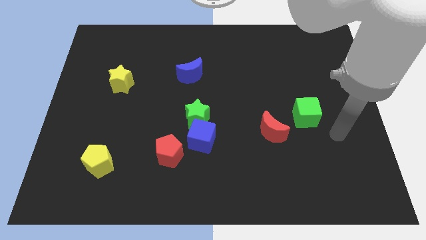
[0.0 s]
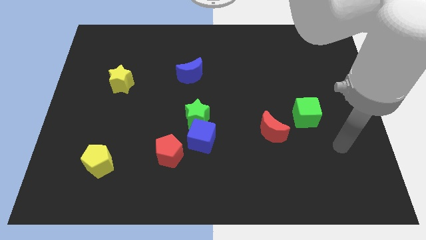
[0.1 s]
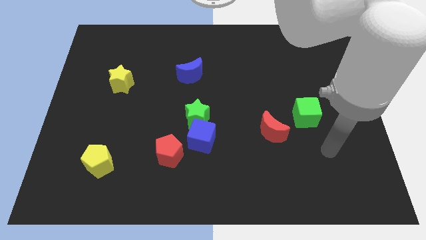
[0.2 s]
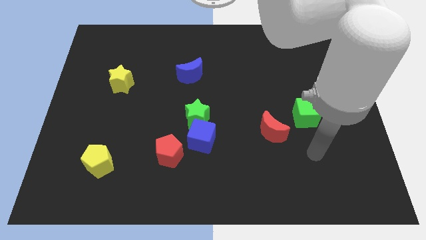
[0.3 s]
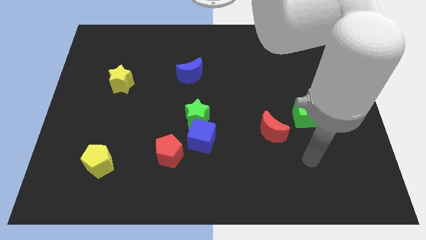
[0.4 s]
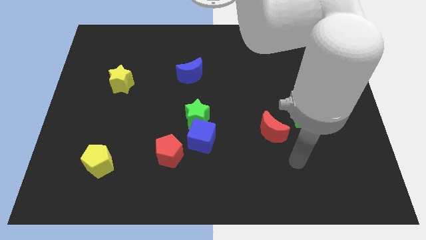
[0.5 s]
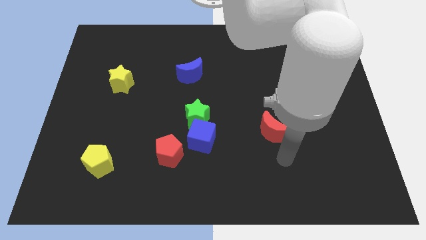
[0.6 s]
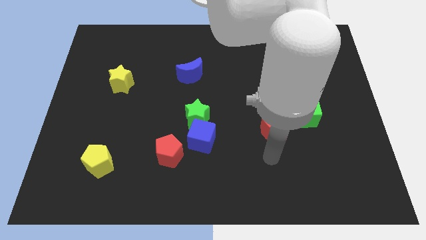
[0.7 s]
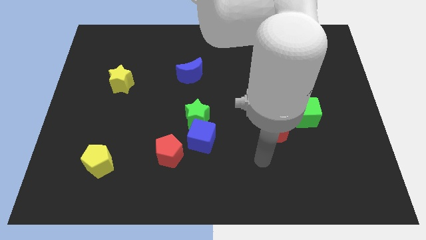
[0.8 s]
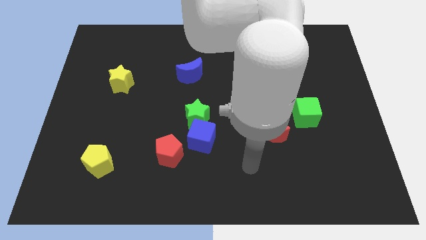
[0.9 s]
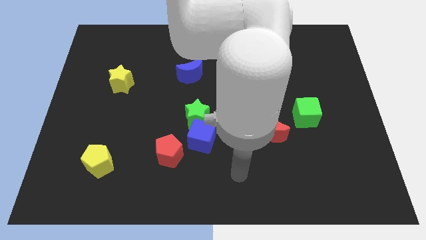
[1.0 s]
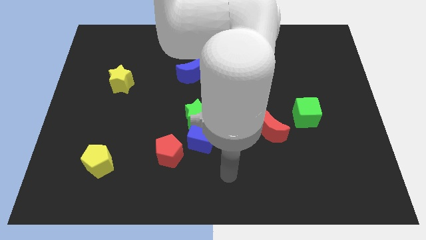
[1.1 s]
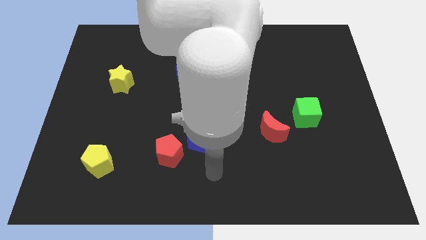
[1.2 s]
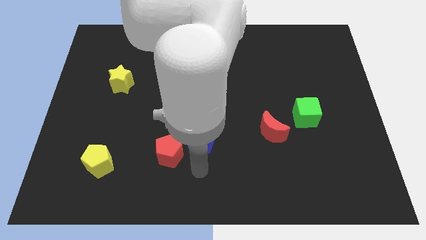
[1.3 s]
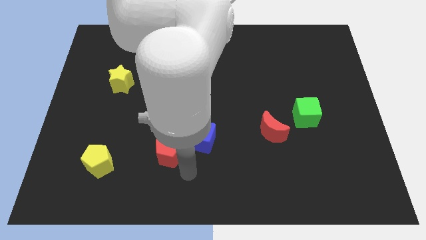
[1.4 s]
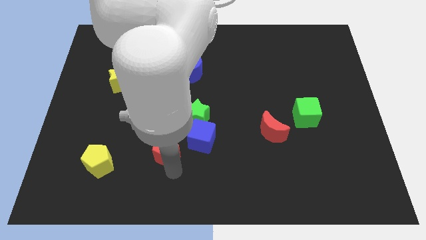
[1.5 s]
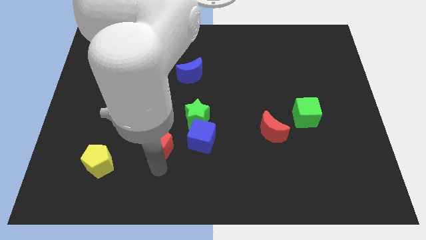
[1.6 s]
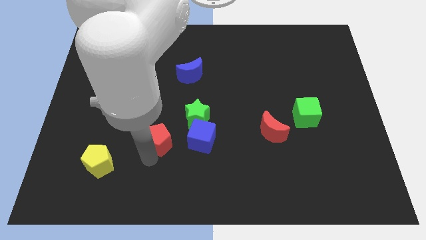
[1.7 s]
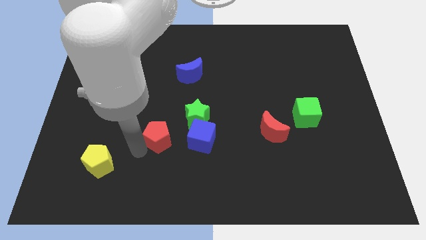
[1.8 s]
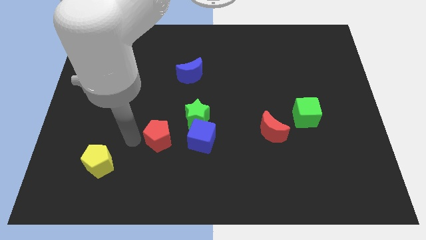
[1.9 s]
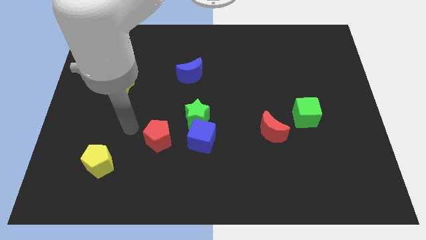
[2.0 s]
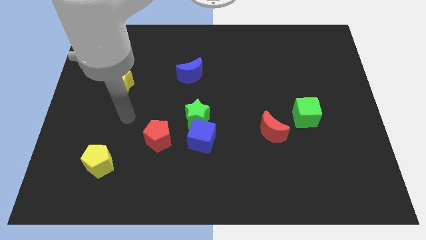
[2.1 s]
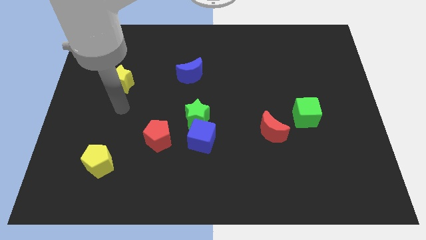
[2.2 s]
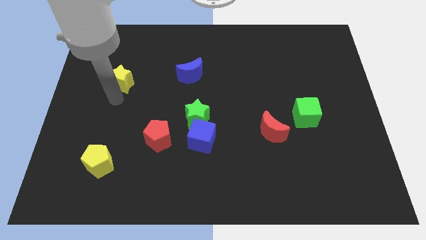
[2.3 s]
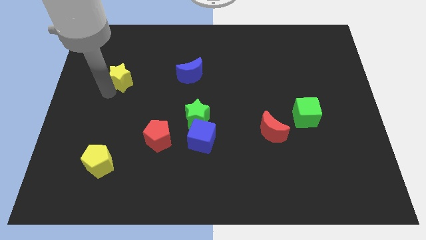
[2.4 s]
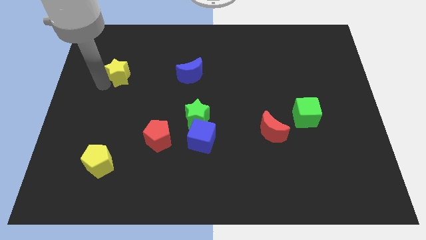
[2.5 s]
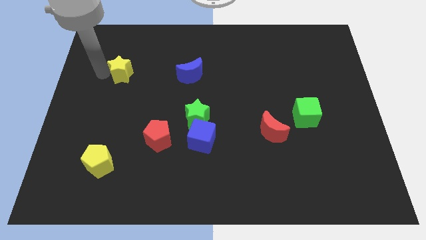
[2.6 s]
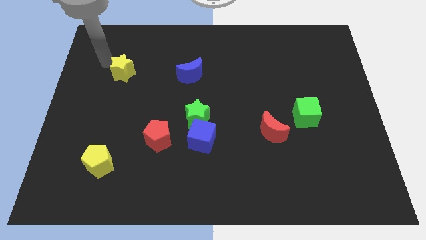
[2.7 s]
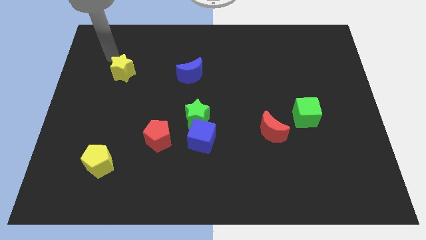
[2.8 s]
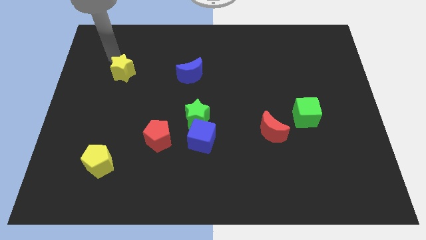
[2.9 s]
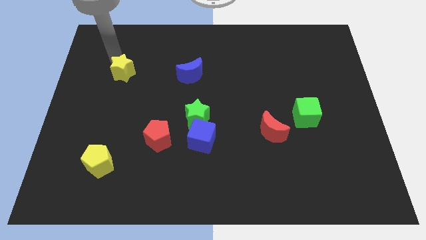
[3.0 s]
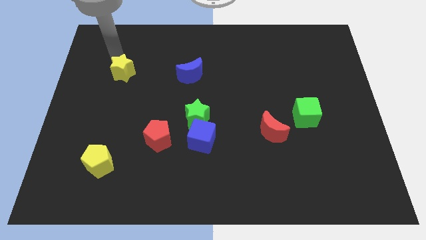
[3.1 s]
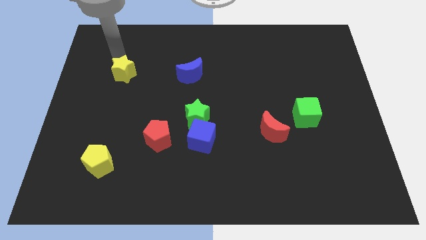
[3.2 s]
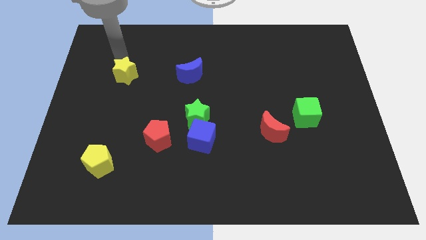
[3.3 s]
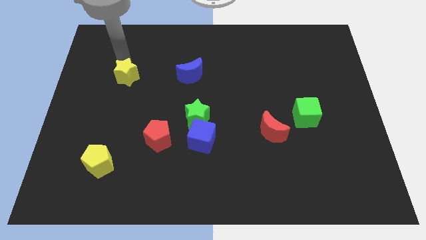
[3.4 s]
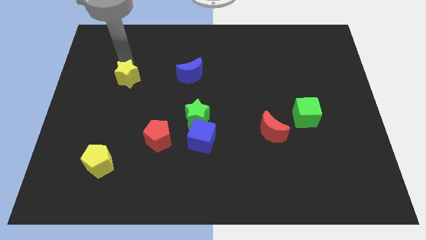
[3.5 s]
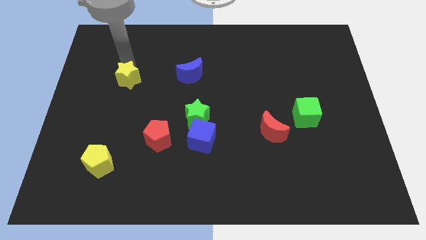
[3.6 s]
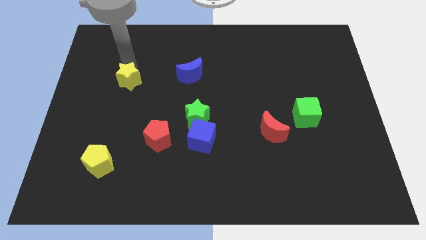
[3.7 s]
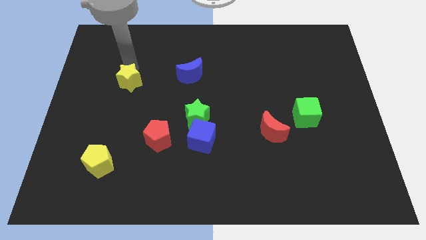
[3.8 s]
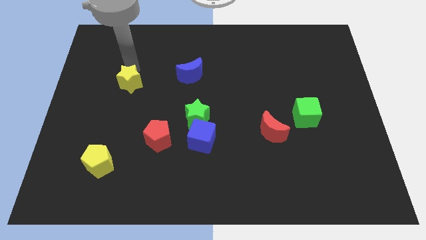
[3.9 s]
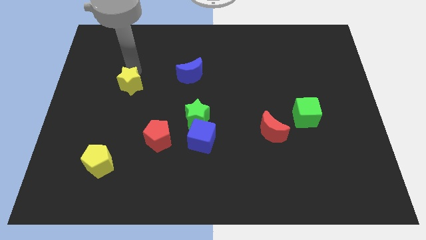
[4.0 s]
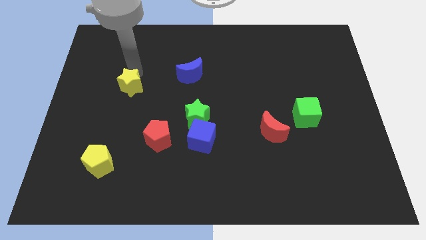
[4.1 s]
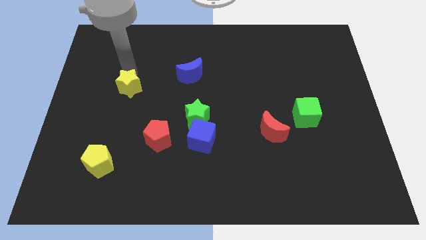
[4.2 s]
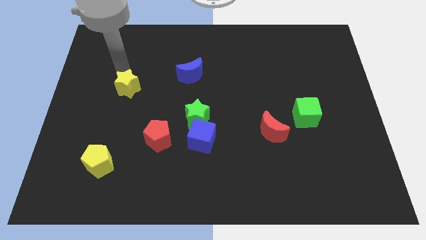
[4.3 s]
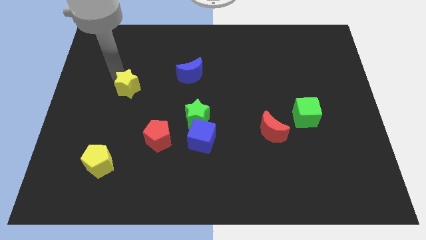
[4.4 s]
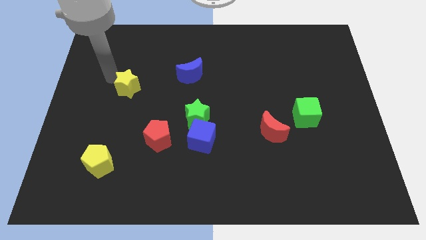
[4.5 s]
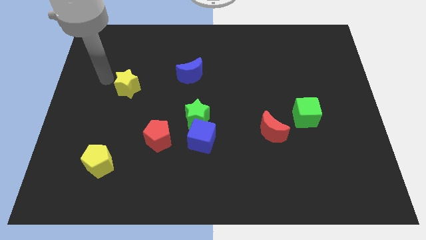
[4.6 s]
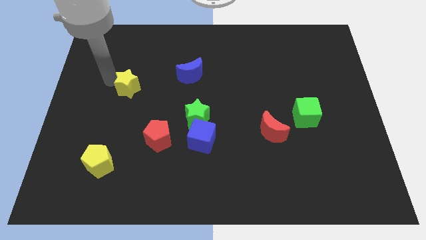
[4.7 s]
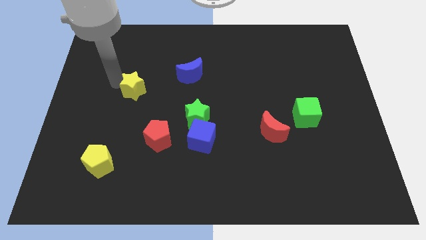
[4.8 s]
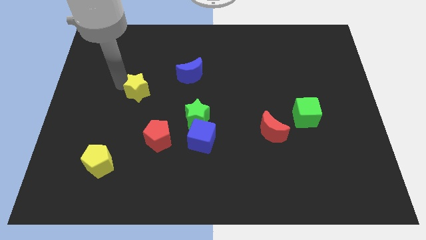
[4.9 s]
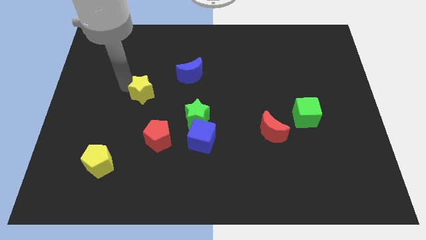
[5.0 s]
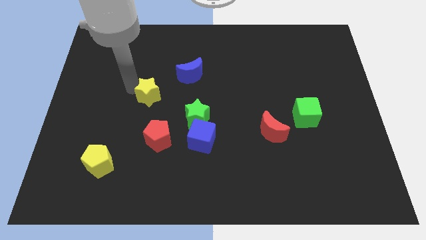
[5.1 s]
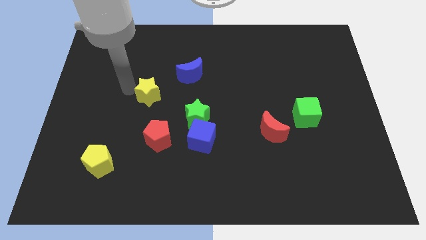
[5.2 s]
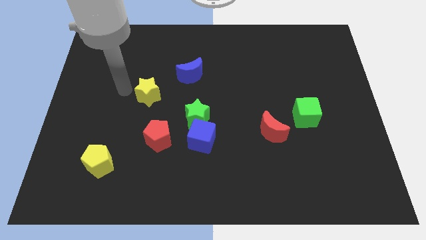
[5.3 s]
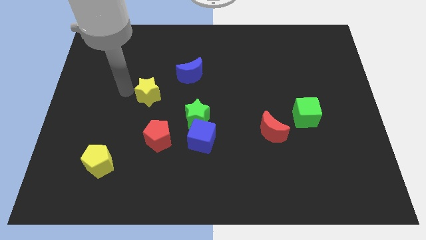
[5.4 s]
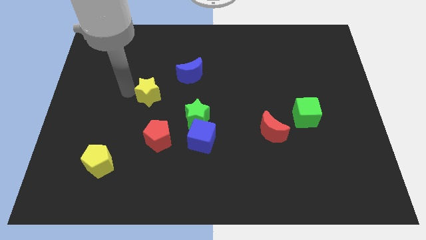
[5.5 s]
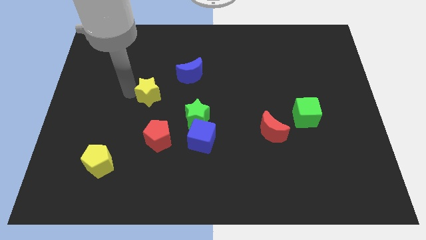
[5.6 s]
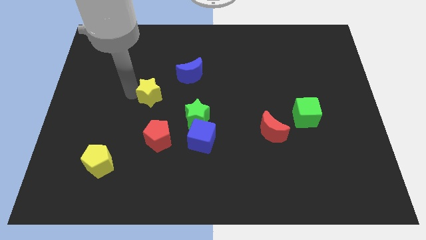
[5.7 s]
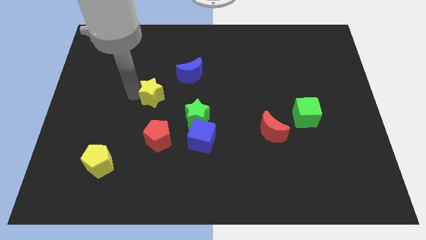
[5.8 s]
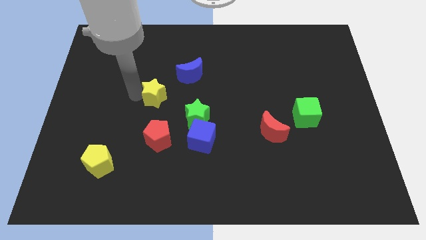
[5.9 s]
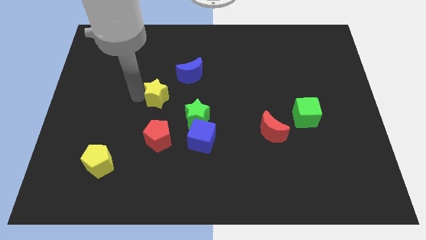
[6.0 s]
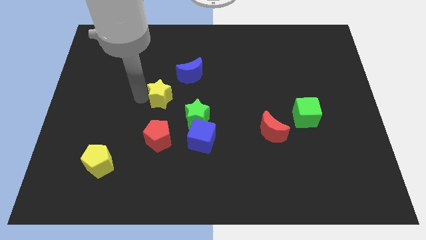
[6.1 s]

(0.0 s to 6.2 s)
slide the yellow star to the center of the board

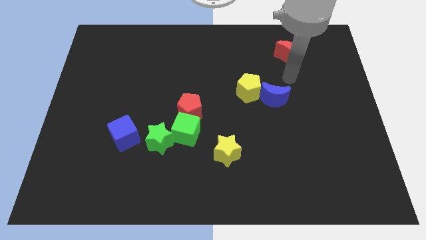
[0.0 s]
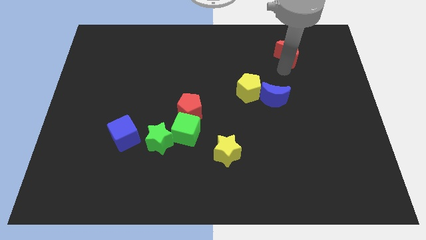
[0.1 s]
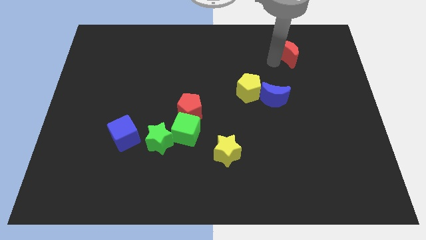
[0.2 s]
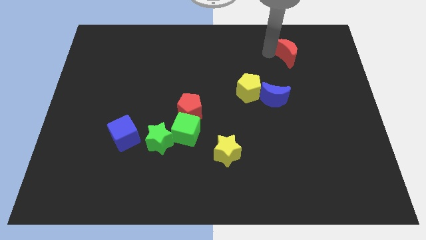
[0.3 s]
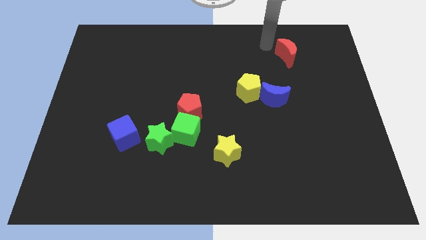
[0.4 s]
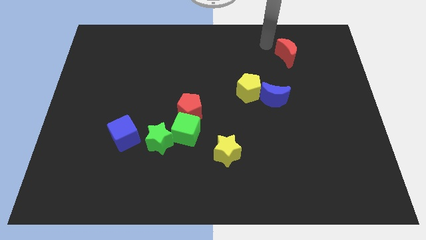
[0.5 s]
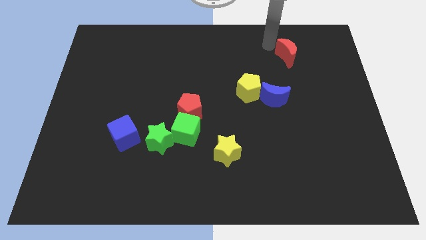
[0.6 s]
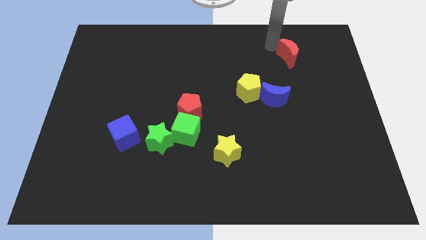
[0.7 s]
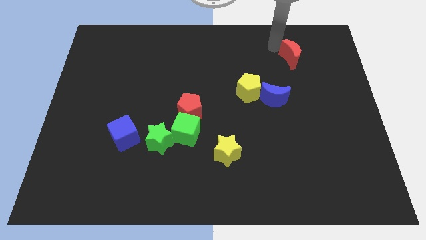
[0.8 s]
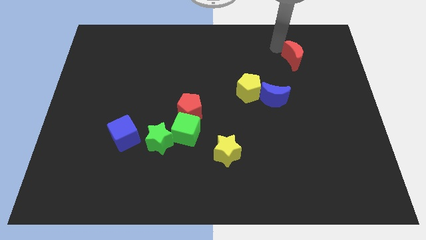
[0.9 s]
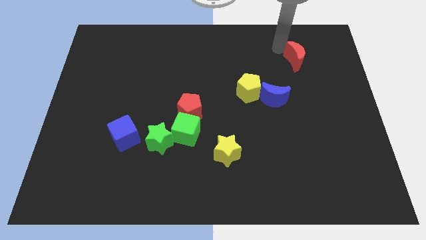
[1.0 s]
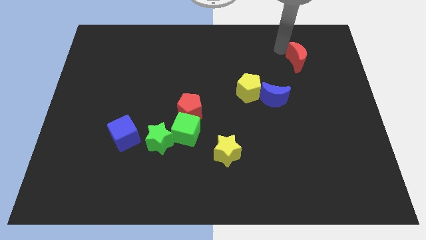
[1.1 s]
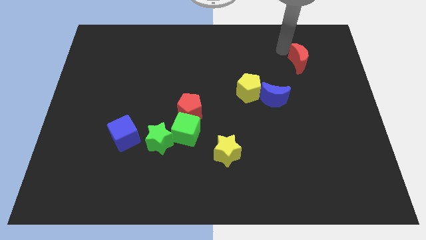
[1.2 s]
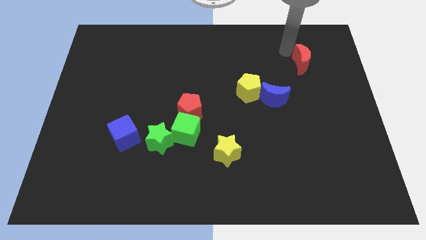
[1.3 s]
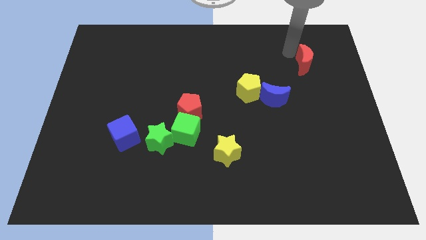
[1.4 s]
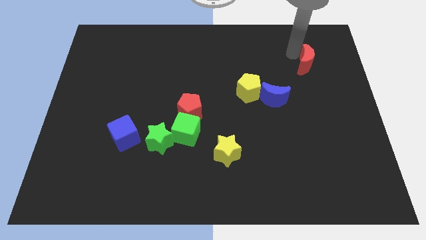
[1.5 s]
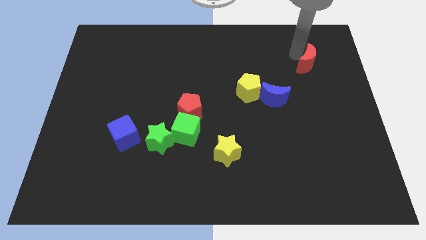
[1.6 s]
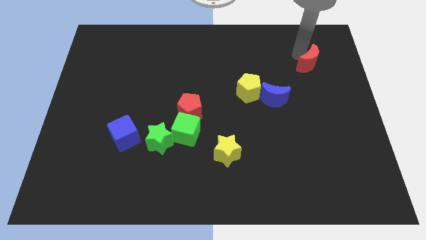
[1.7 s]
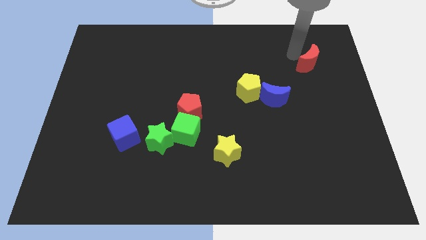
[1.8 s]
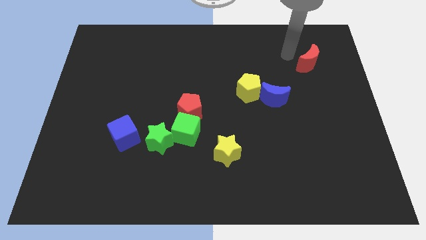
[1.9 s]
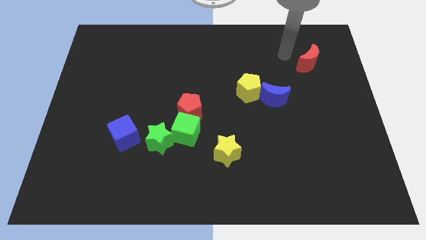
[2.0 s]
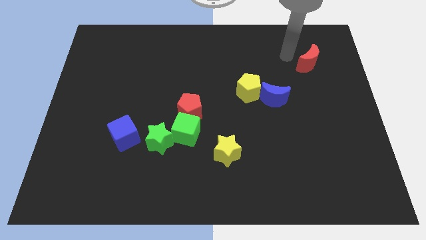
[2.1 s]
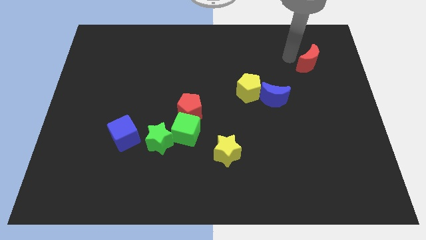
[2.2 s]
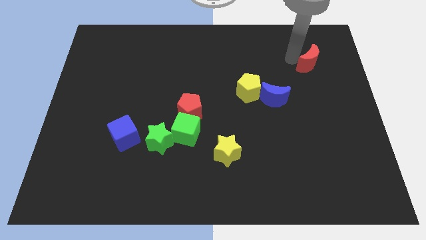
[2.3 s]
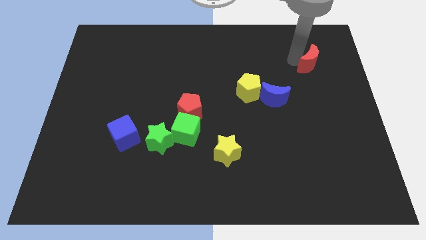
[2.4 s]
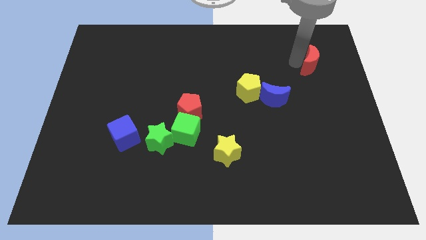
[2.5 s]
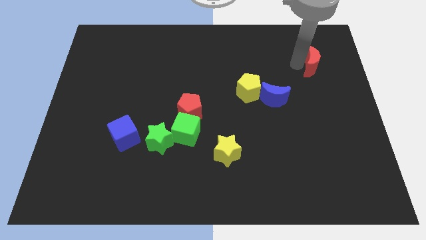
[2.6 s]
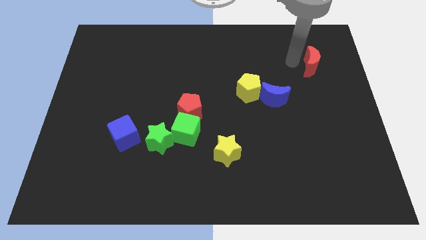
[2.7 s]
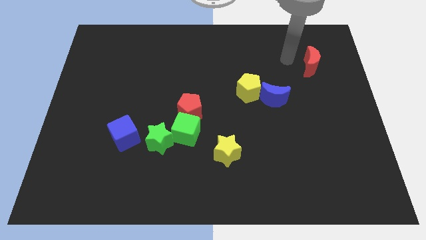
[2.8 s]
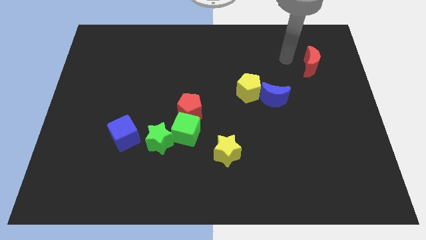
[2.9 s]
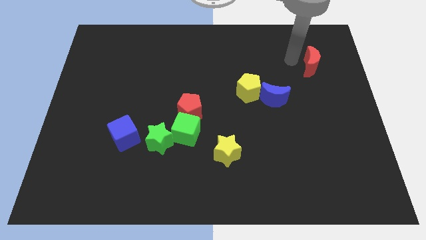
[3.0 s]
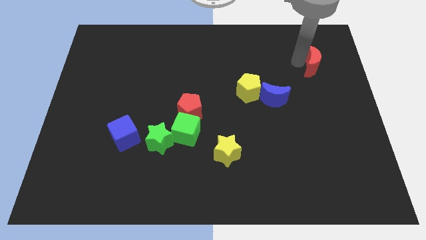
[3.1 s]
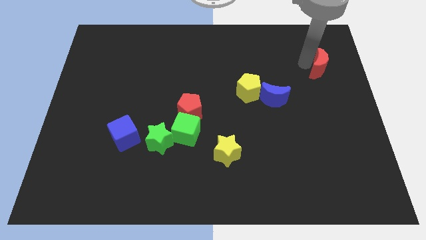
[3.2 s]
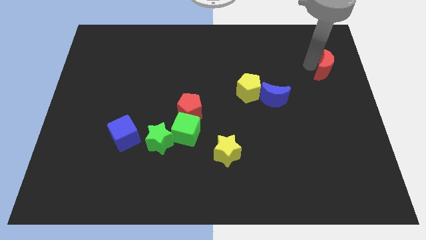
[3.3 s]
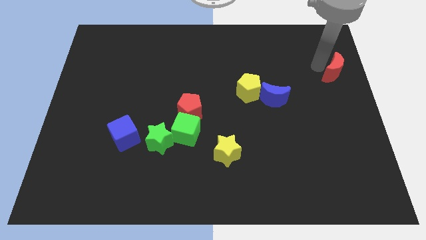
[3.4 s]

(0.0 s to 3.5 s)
push the red moon to the right side of the board
